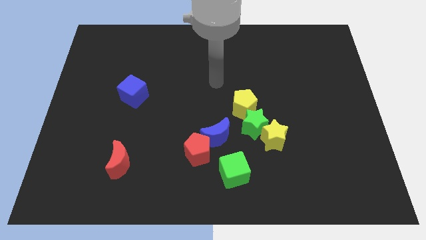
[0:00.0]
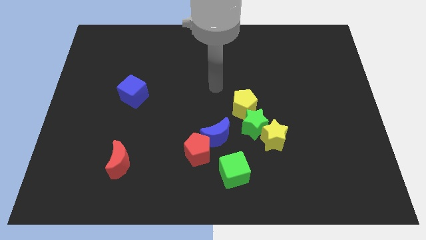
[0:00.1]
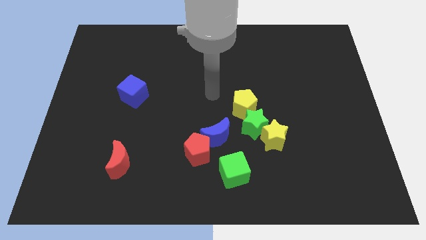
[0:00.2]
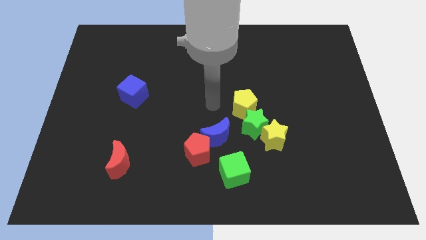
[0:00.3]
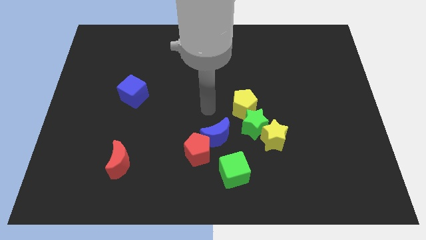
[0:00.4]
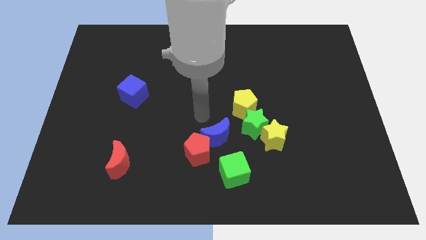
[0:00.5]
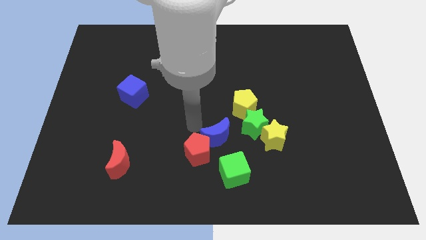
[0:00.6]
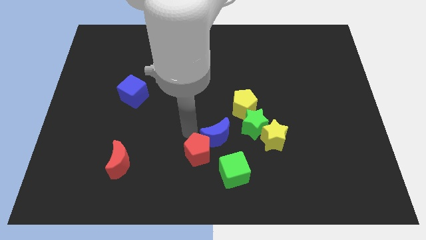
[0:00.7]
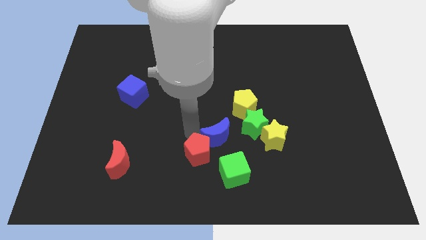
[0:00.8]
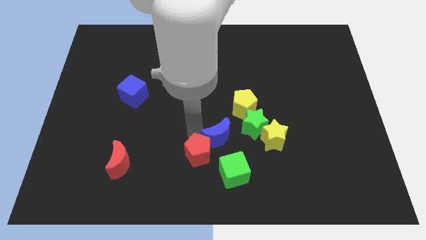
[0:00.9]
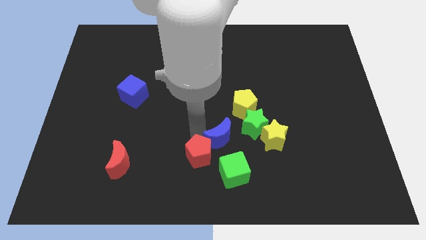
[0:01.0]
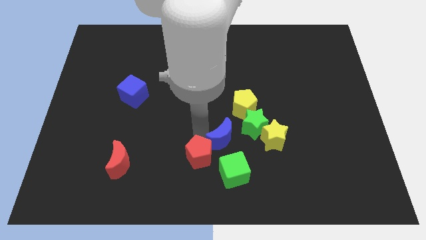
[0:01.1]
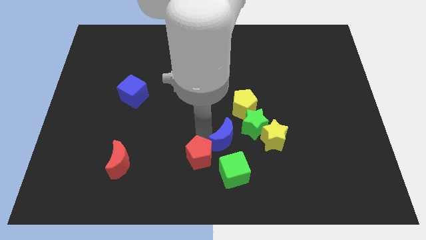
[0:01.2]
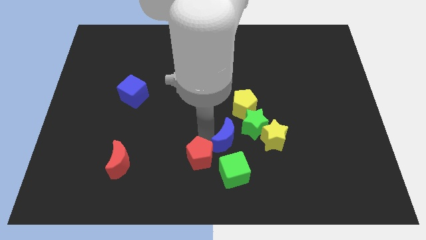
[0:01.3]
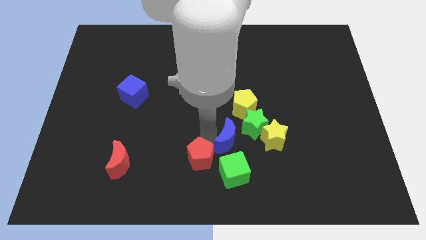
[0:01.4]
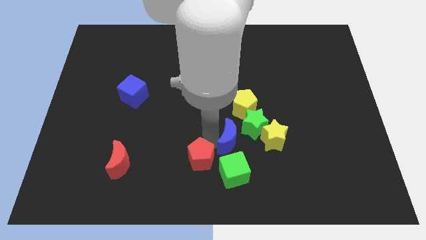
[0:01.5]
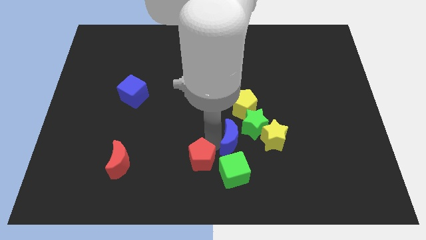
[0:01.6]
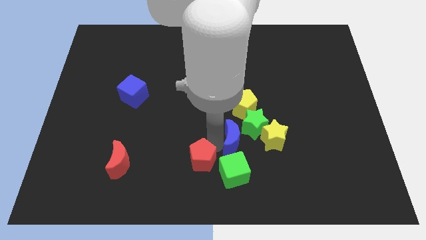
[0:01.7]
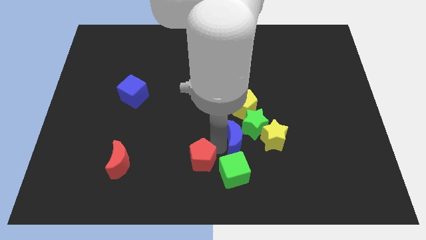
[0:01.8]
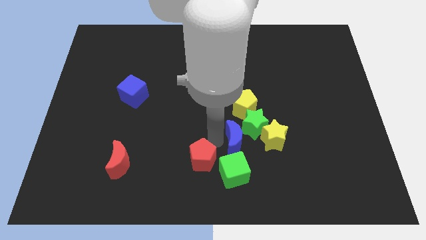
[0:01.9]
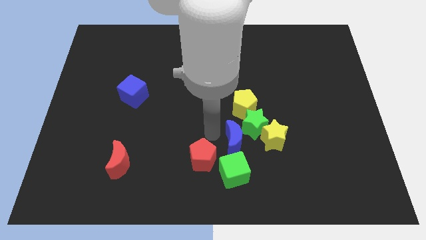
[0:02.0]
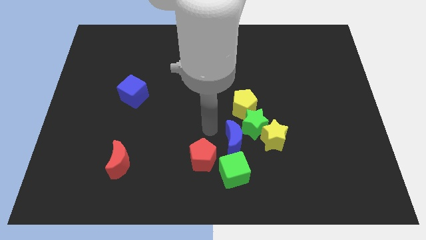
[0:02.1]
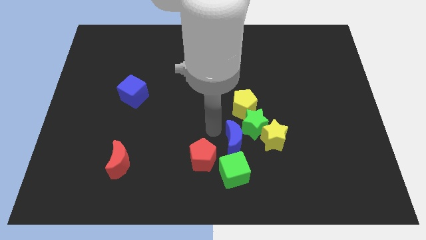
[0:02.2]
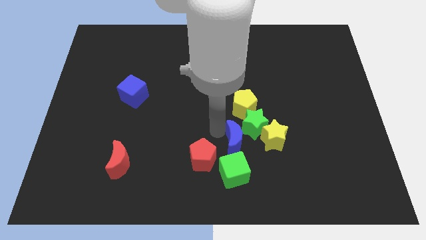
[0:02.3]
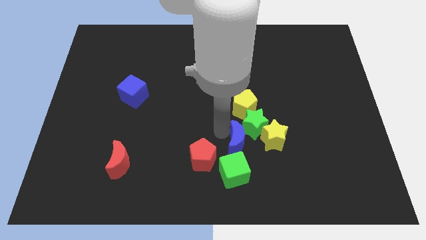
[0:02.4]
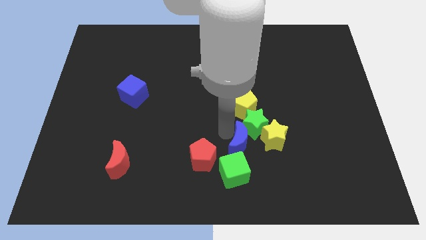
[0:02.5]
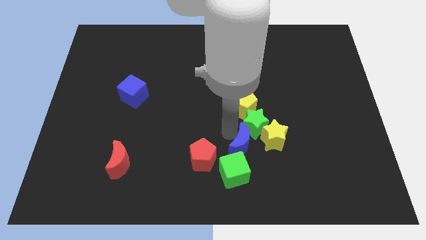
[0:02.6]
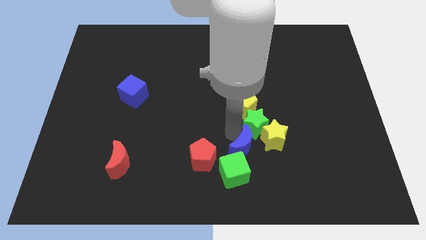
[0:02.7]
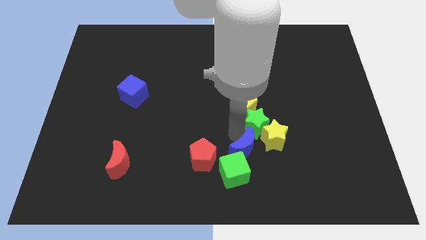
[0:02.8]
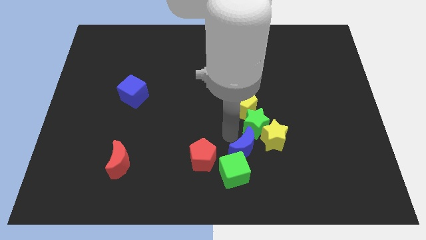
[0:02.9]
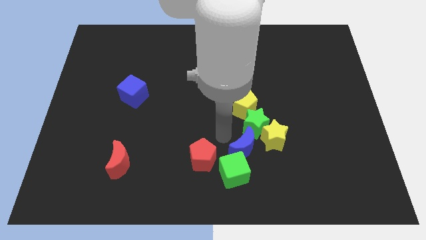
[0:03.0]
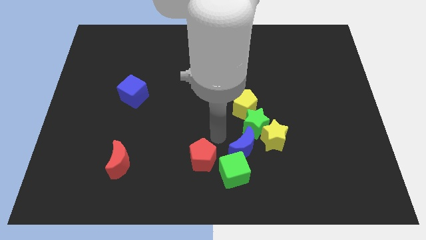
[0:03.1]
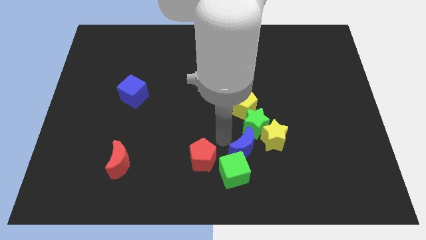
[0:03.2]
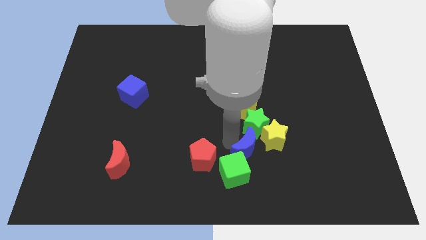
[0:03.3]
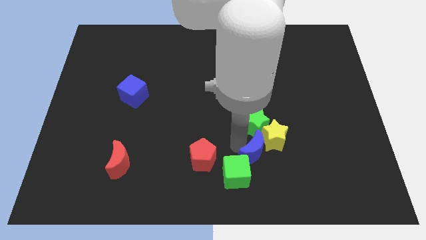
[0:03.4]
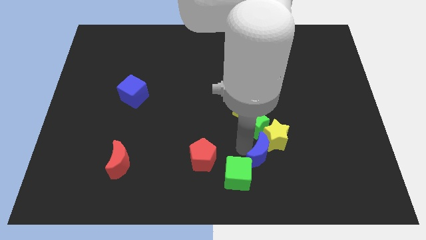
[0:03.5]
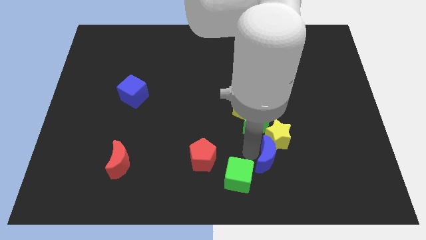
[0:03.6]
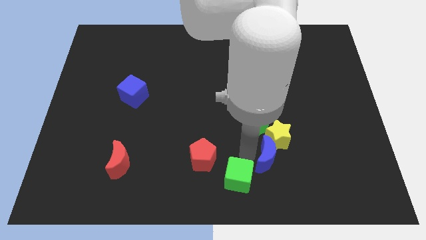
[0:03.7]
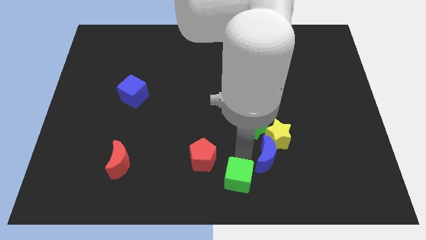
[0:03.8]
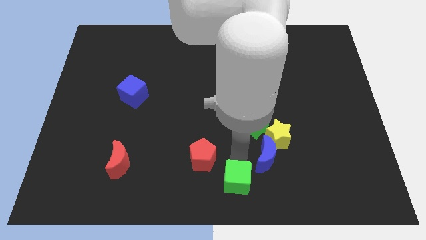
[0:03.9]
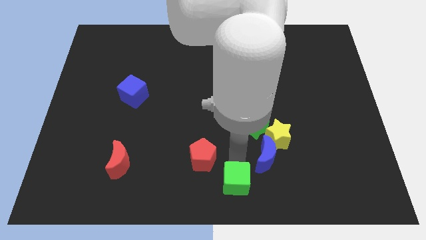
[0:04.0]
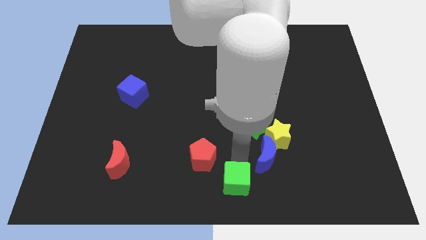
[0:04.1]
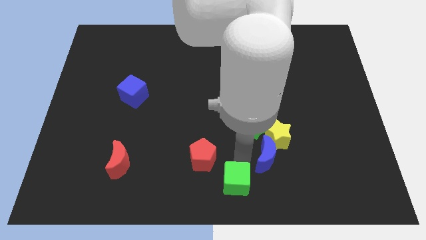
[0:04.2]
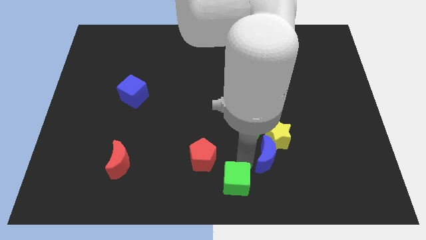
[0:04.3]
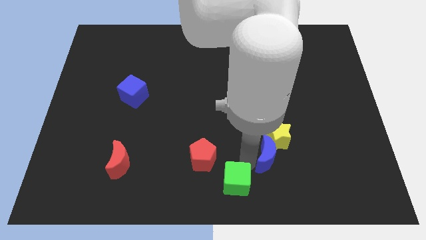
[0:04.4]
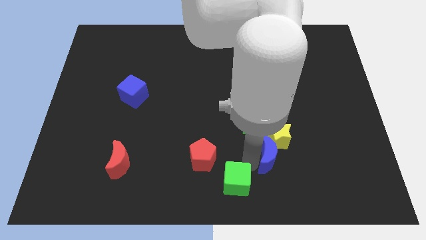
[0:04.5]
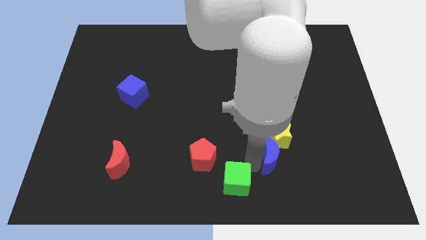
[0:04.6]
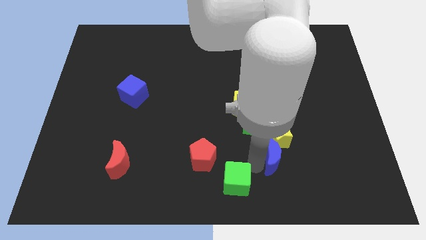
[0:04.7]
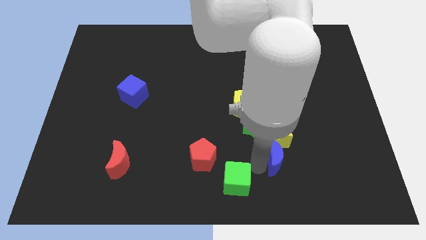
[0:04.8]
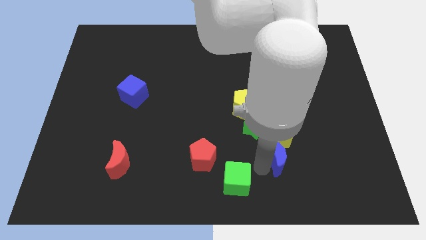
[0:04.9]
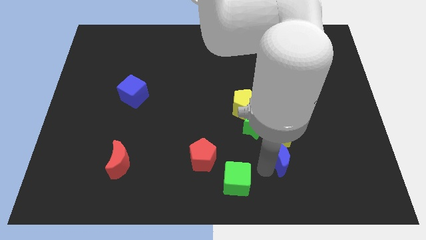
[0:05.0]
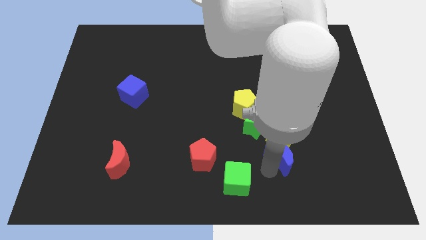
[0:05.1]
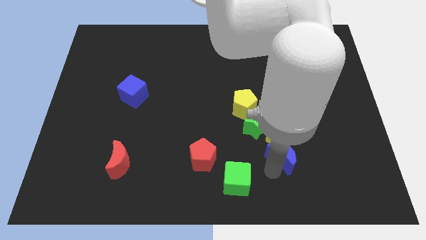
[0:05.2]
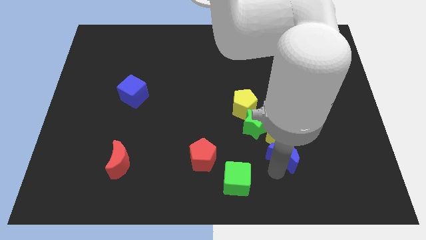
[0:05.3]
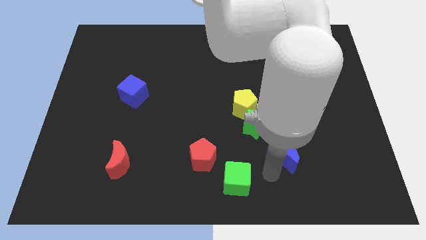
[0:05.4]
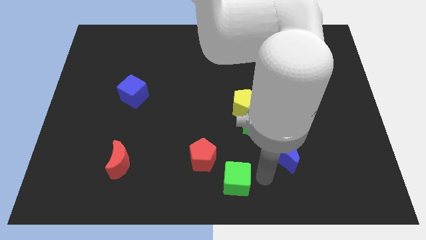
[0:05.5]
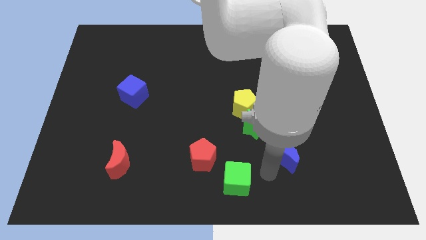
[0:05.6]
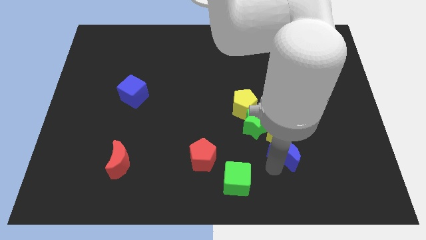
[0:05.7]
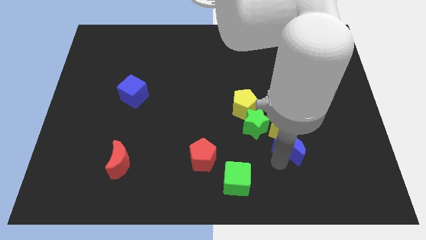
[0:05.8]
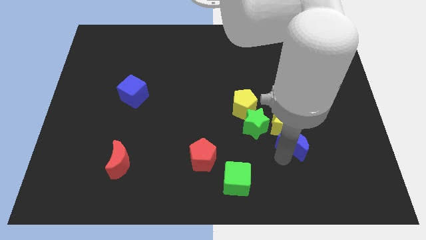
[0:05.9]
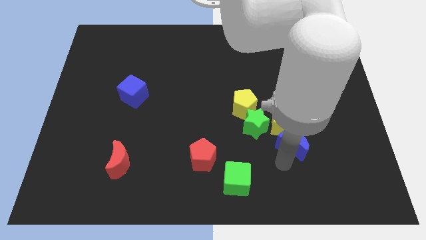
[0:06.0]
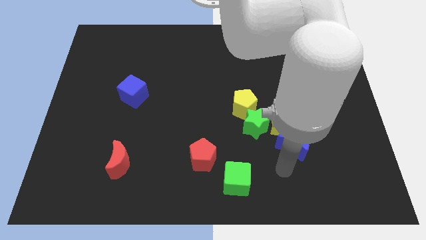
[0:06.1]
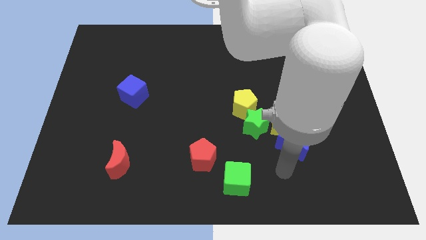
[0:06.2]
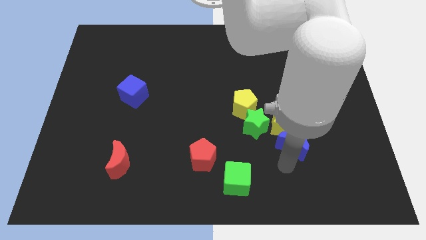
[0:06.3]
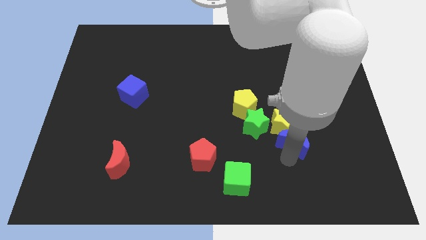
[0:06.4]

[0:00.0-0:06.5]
put the blue moon right of the green star

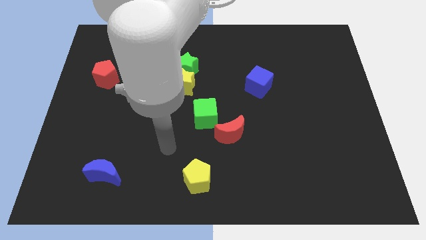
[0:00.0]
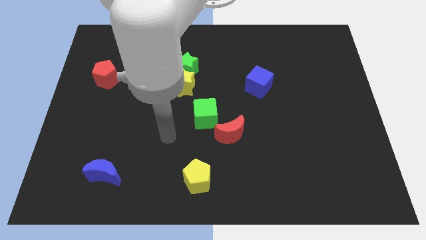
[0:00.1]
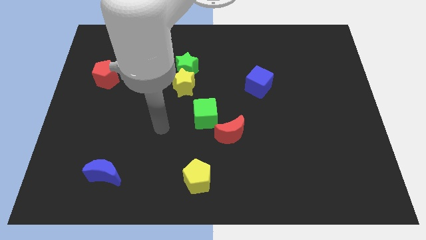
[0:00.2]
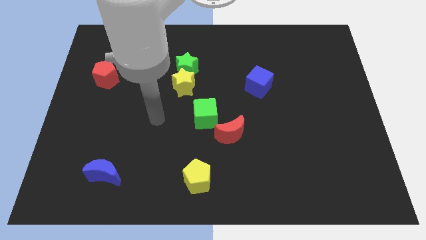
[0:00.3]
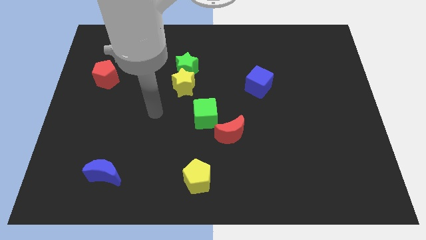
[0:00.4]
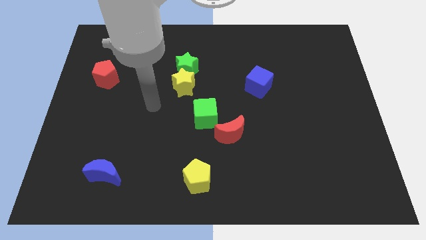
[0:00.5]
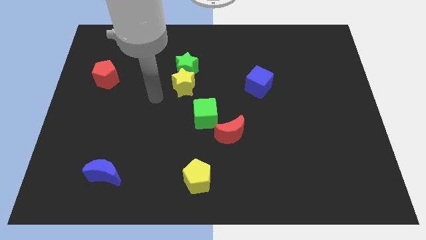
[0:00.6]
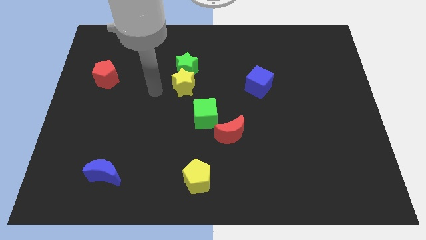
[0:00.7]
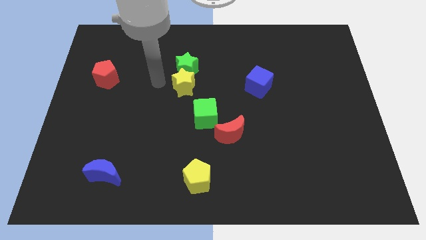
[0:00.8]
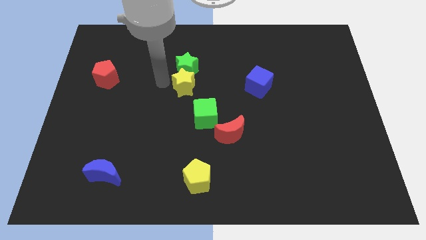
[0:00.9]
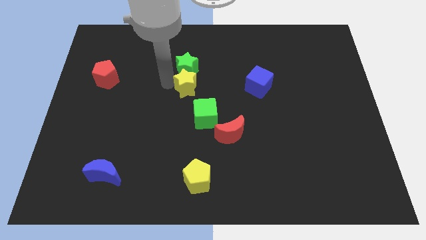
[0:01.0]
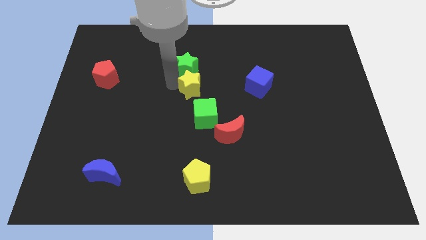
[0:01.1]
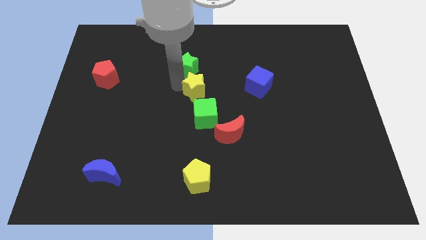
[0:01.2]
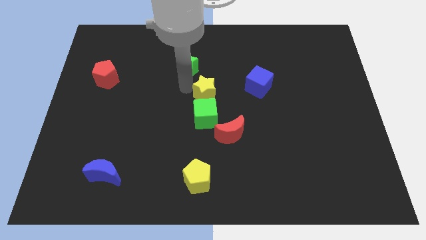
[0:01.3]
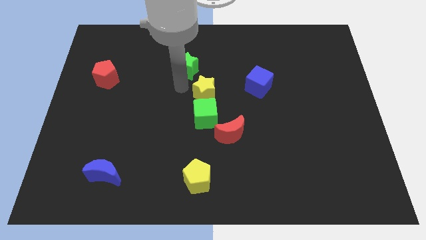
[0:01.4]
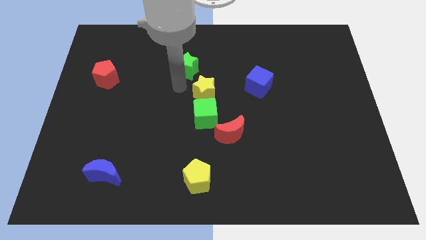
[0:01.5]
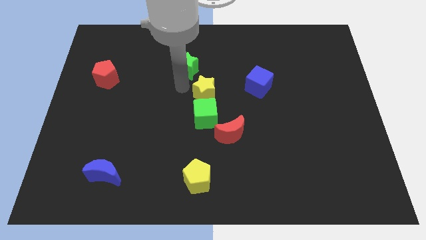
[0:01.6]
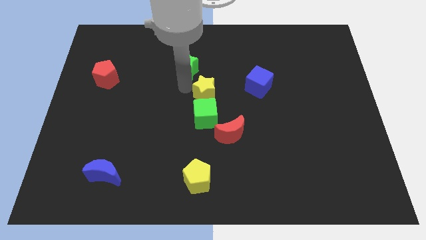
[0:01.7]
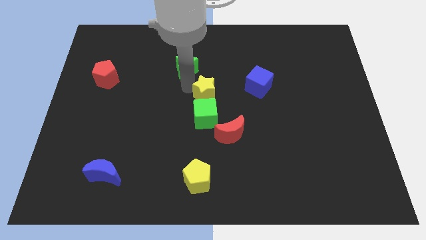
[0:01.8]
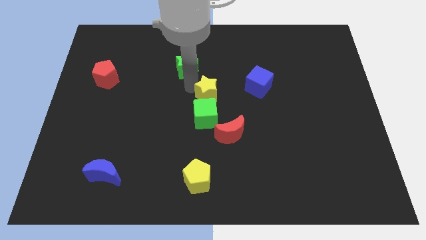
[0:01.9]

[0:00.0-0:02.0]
move the yellow star to the top right side of the green cube
